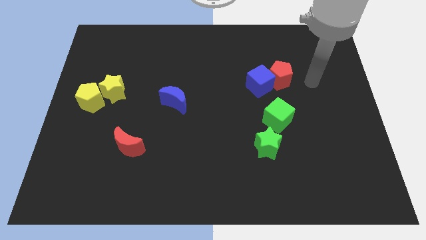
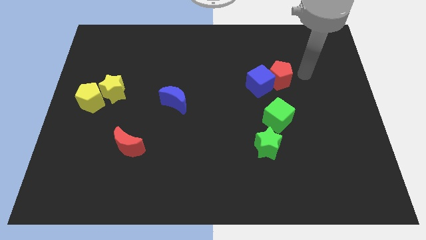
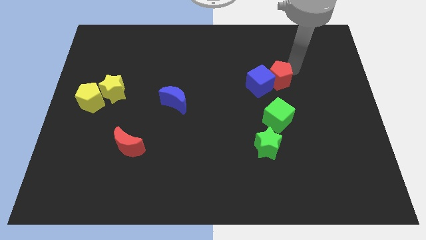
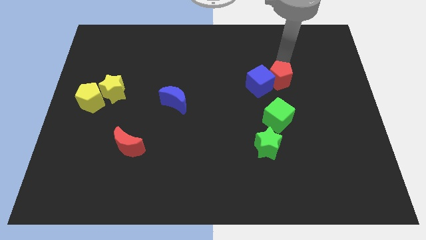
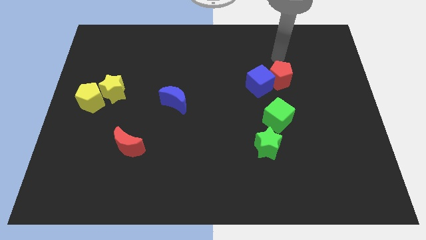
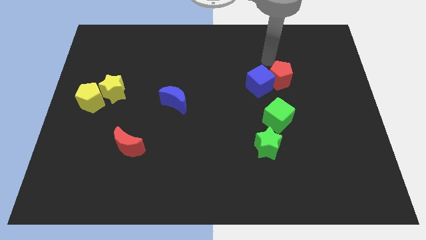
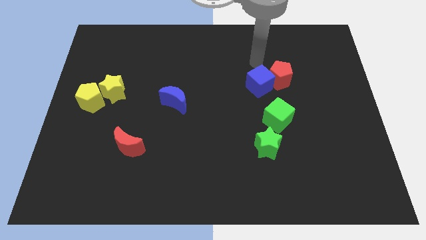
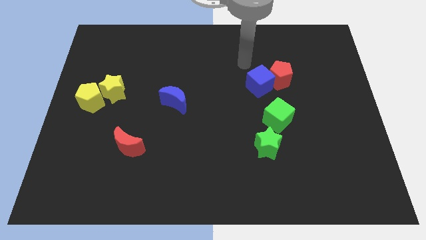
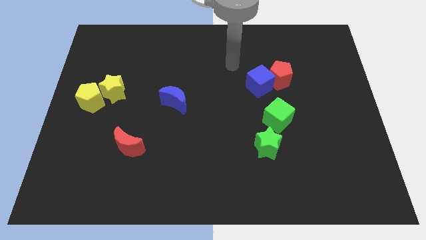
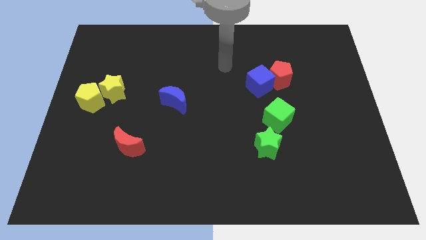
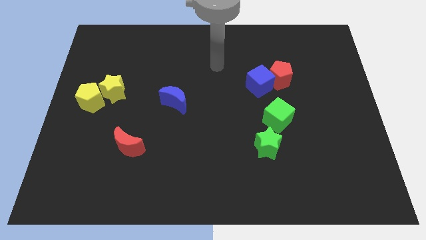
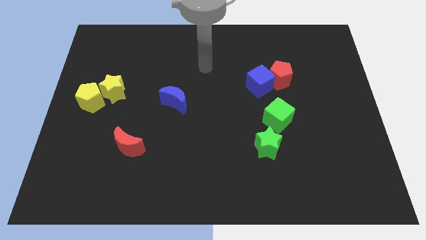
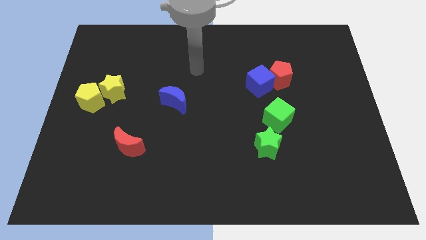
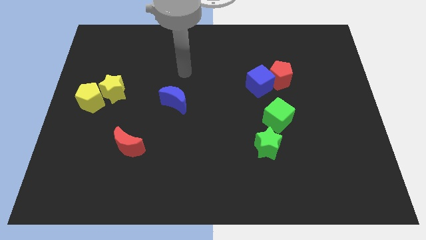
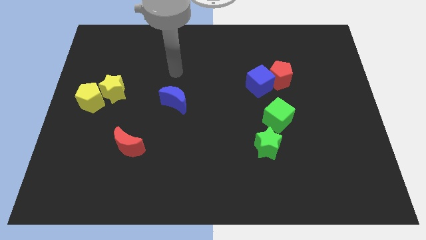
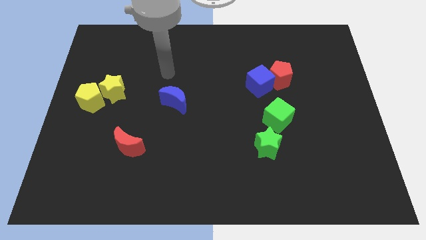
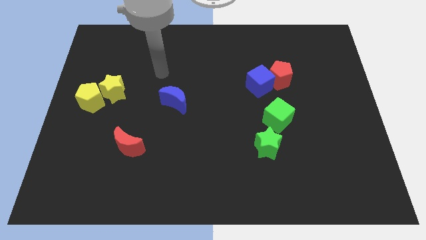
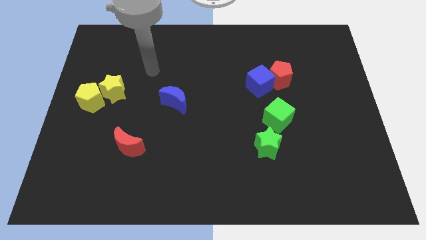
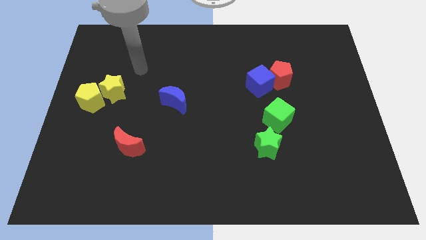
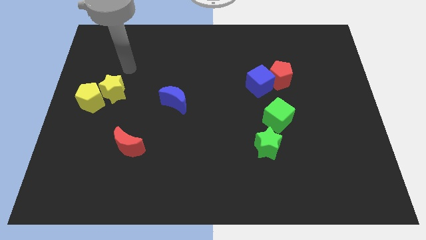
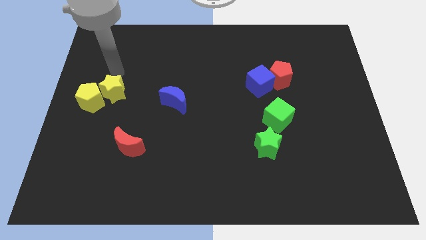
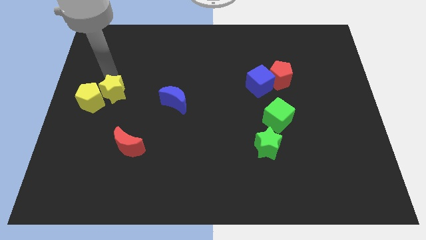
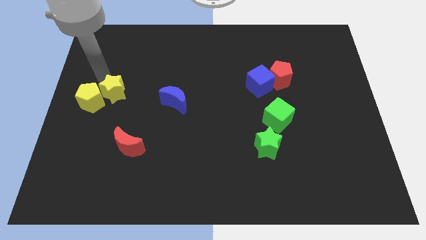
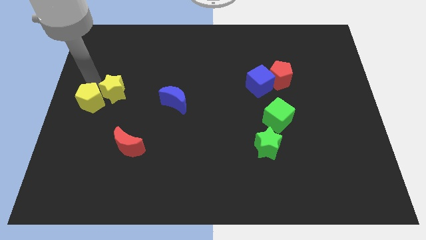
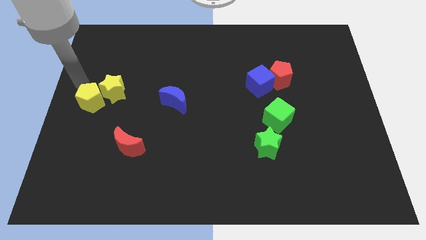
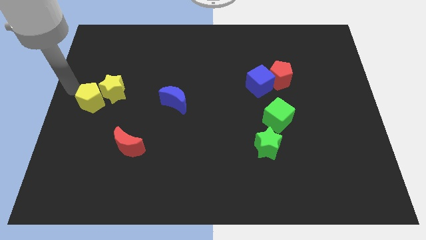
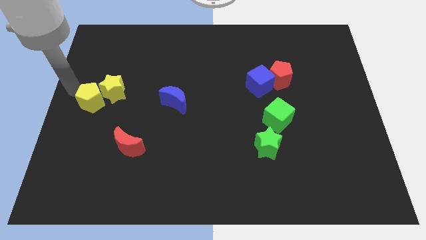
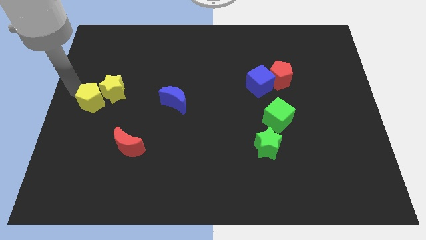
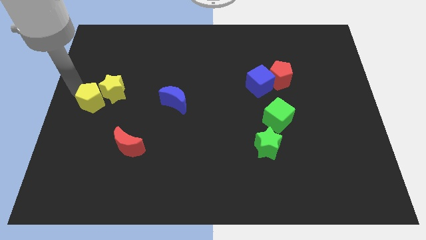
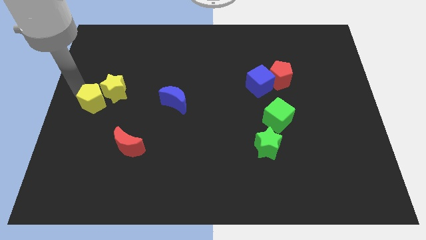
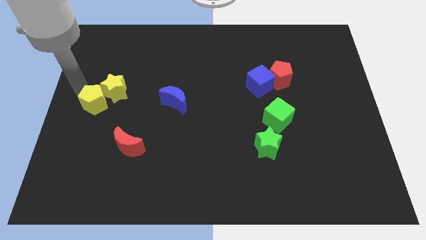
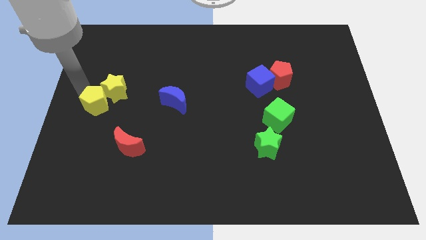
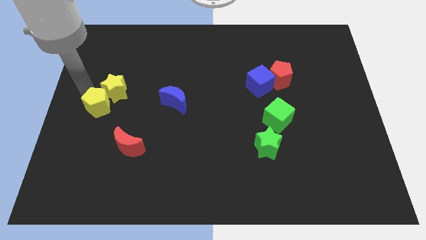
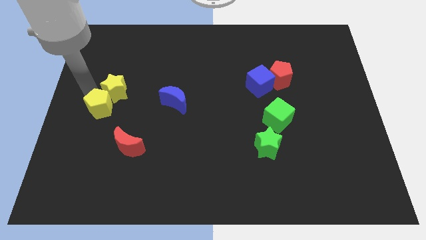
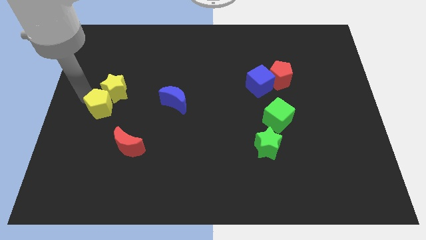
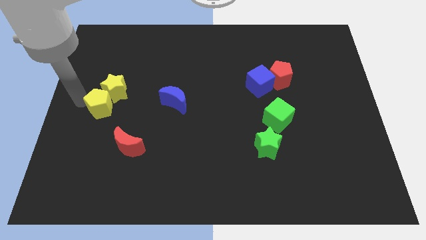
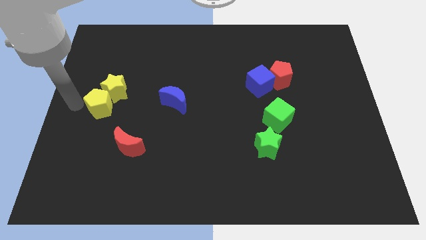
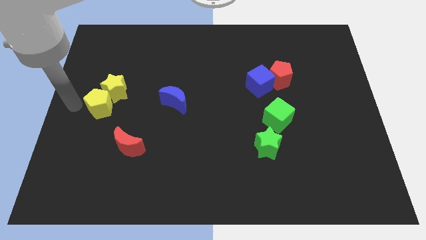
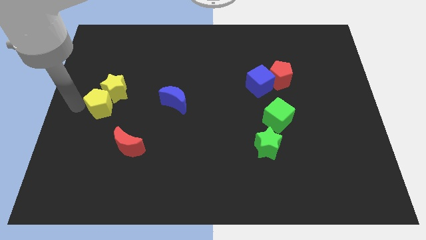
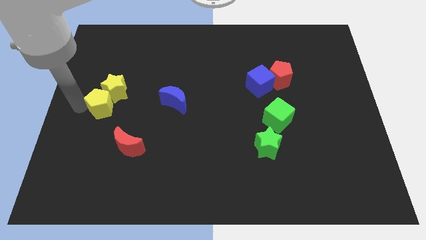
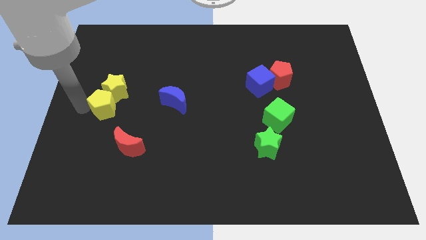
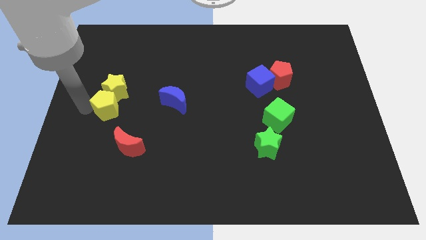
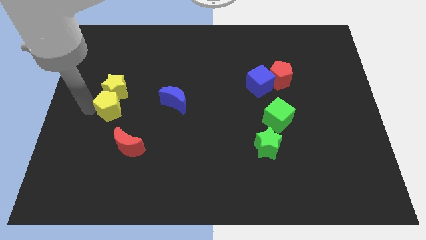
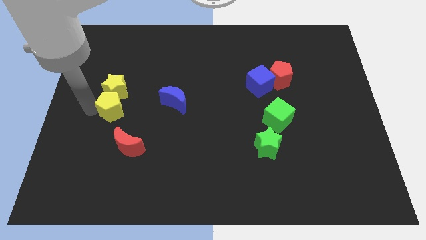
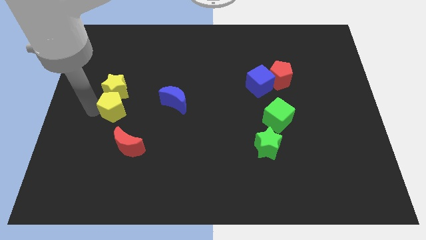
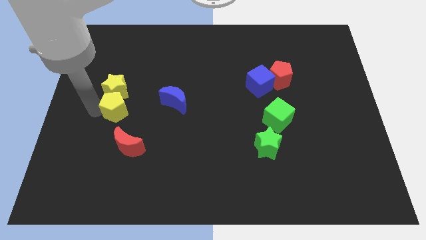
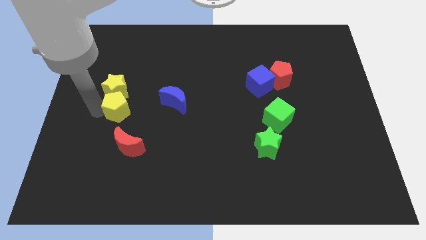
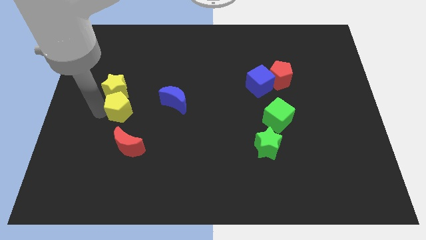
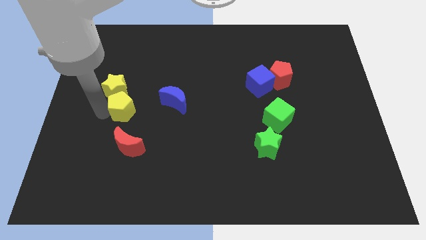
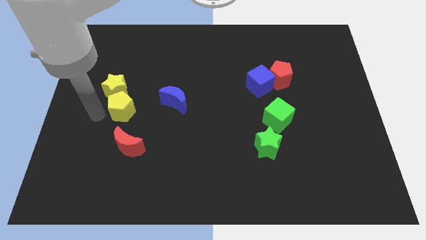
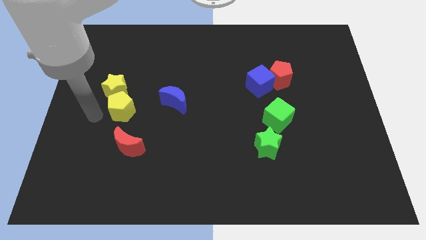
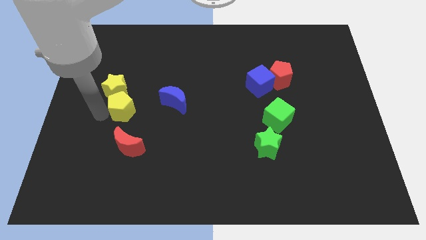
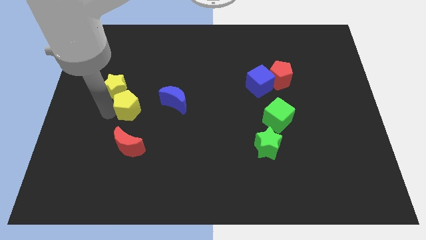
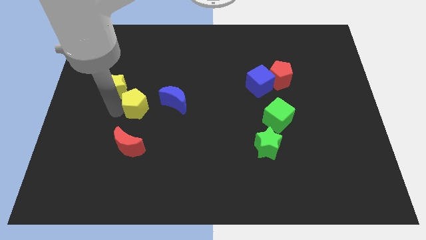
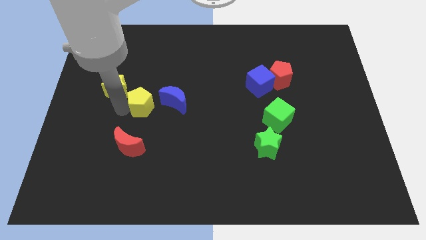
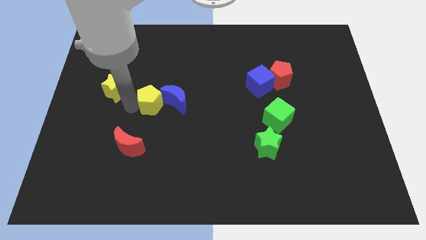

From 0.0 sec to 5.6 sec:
push the yellow pentagon next to the blue moon

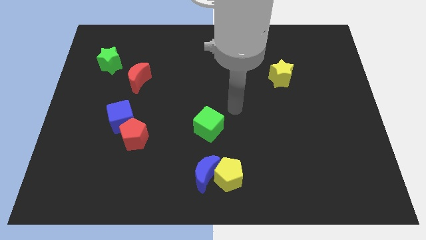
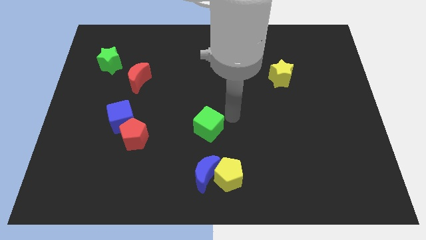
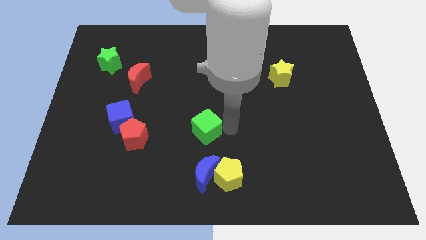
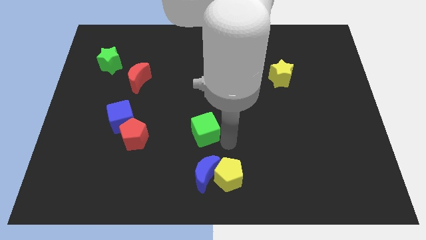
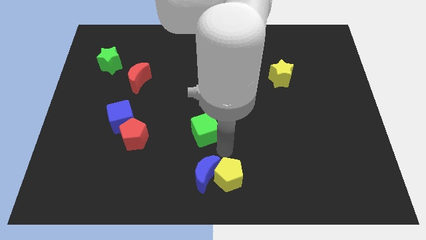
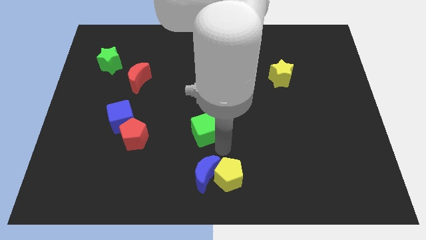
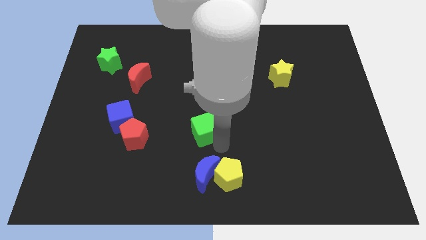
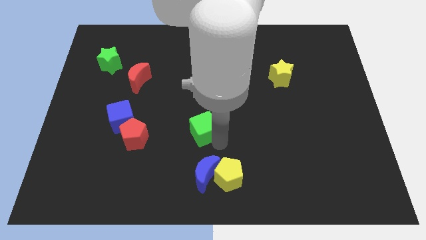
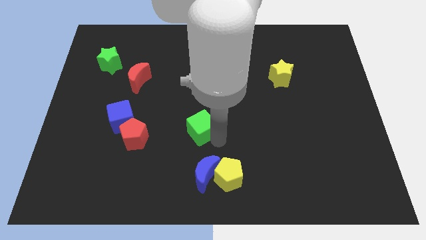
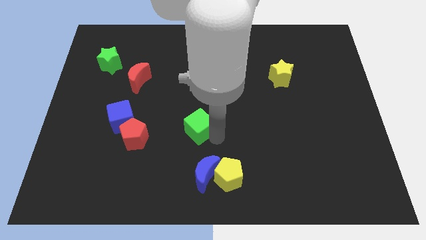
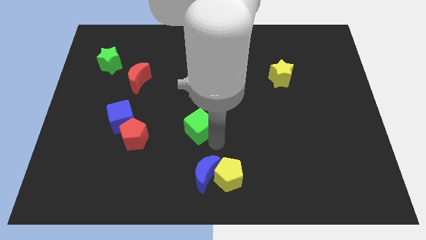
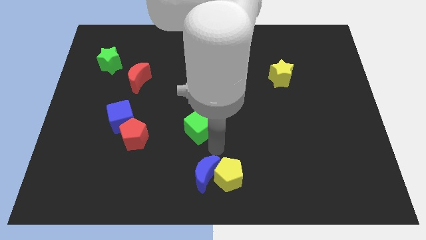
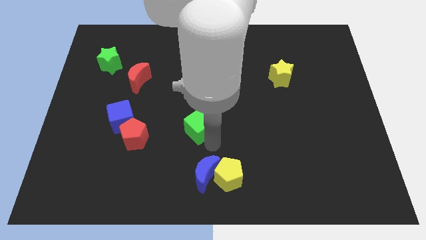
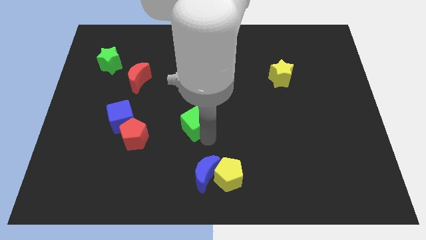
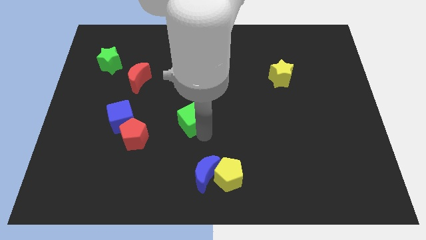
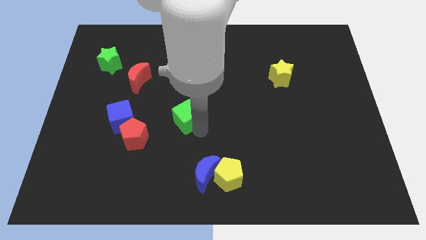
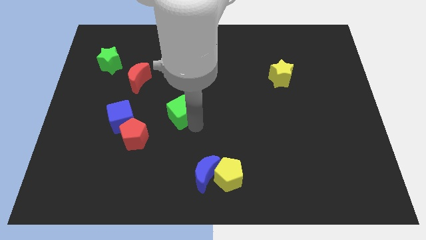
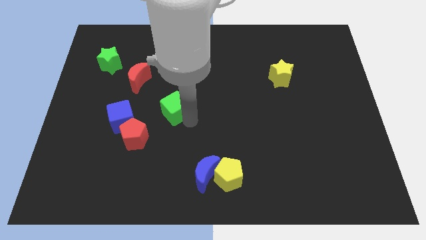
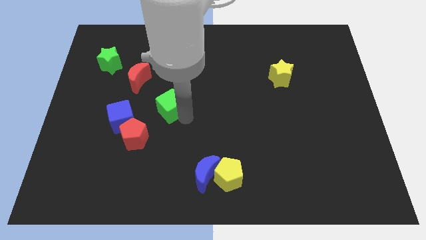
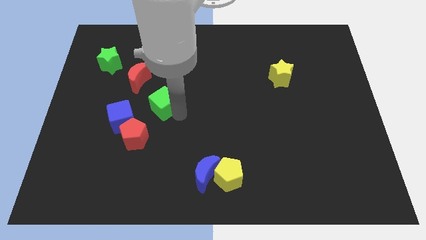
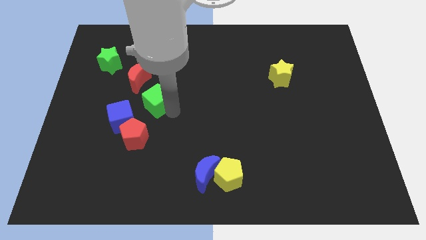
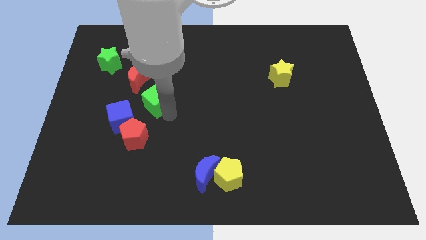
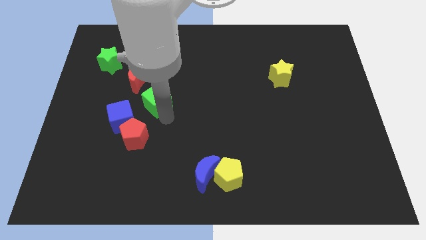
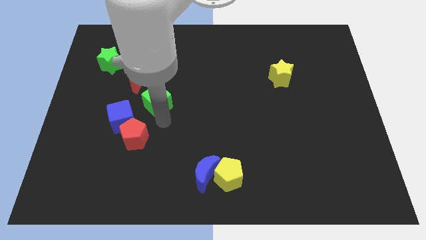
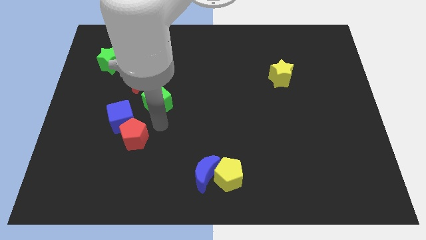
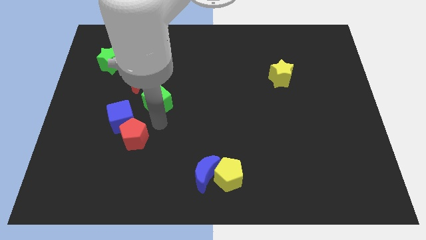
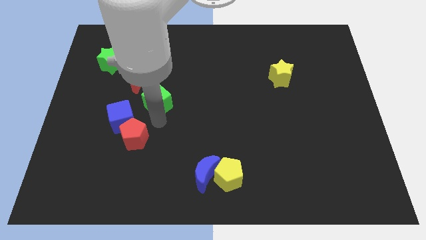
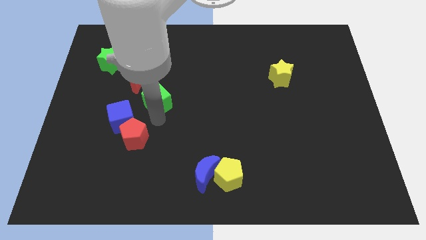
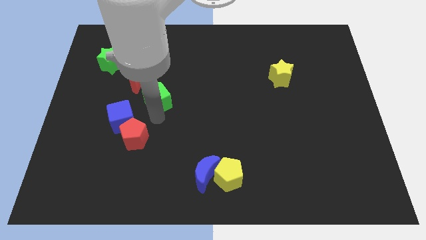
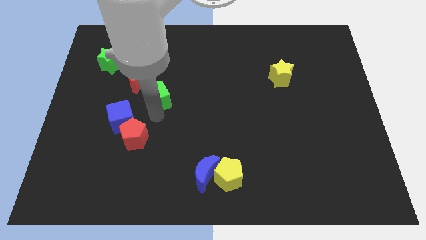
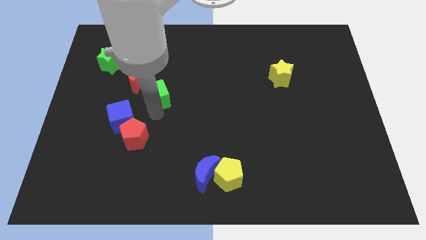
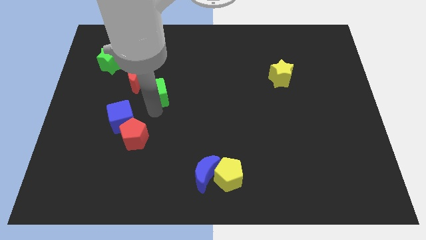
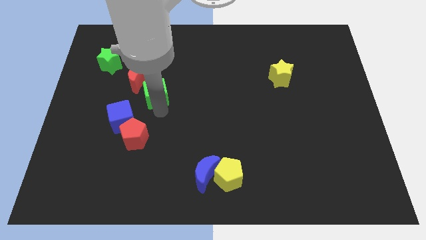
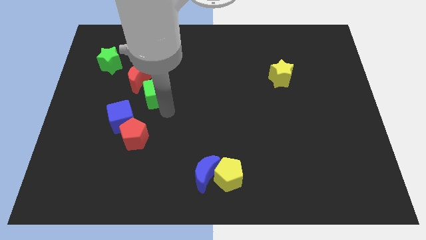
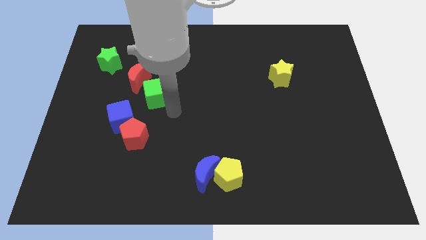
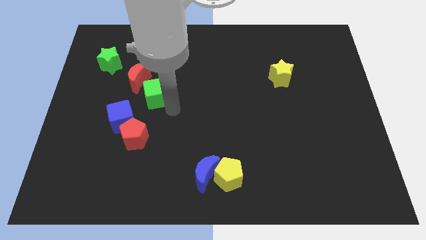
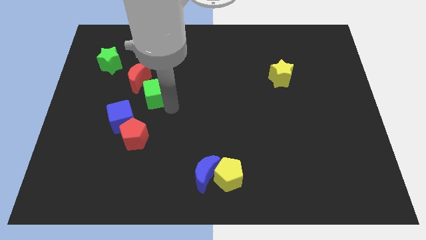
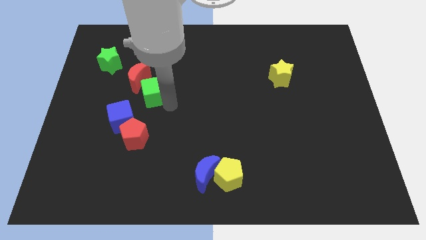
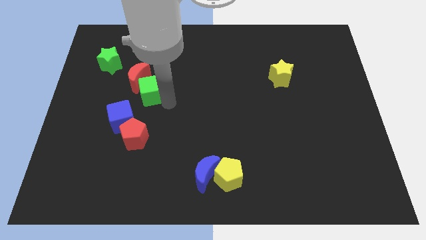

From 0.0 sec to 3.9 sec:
put the green cube to the red moon
